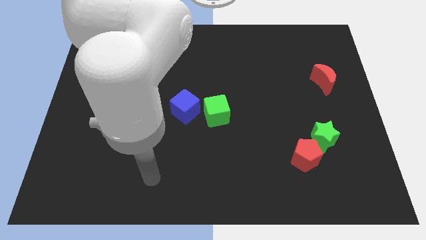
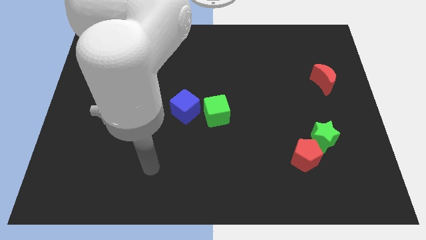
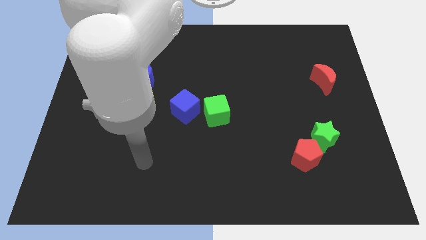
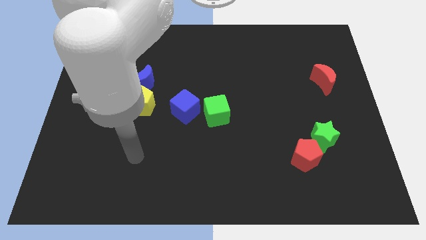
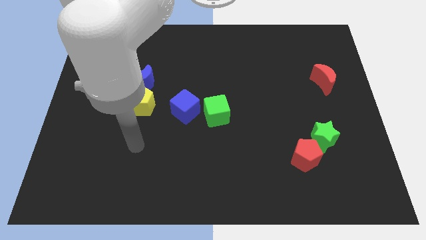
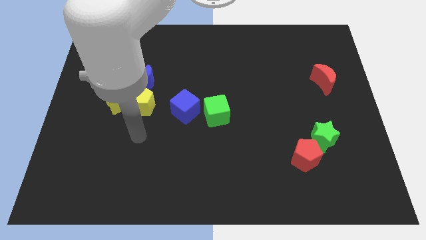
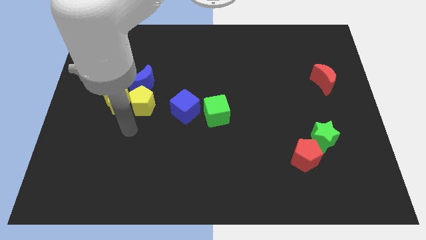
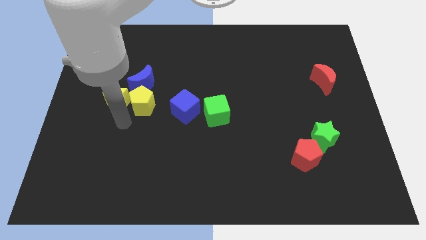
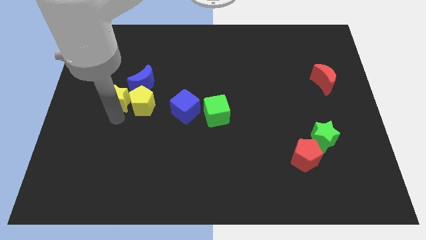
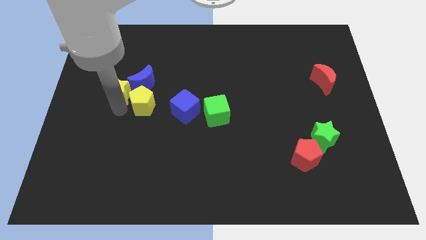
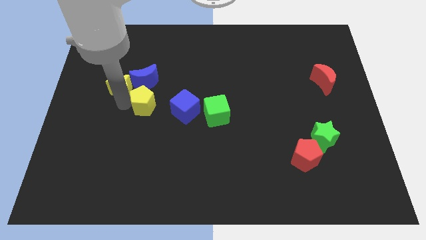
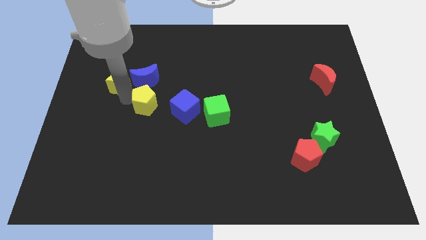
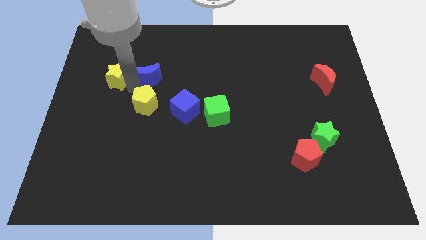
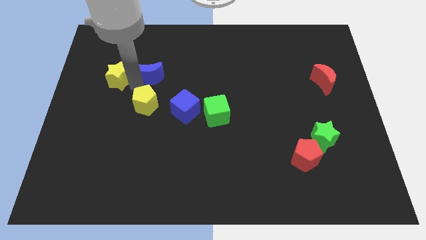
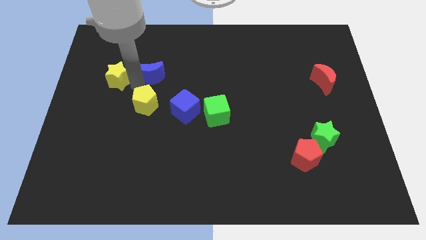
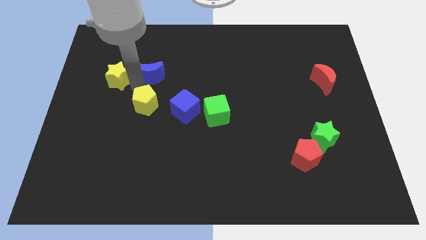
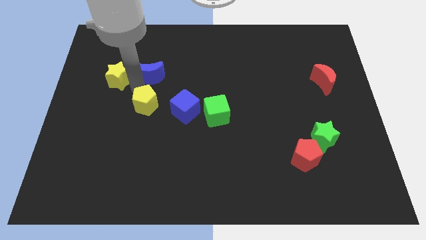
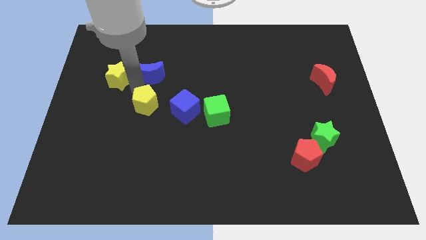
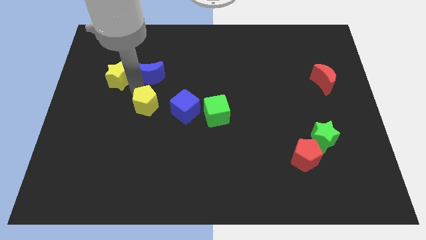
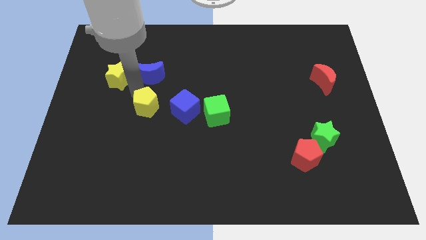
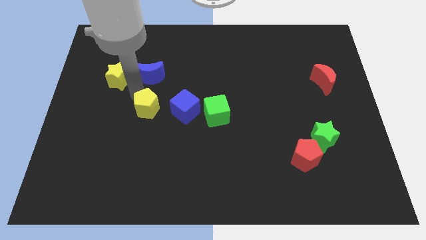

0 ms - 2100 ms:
pull the yellow pentagon apart from the yellow star and blue moon

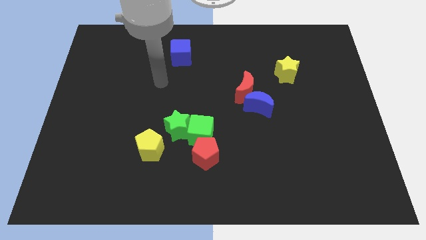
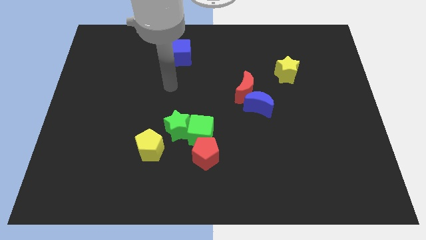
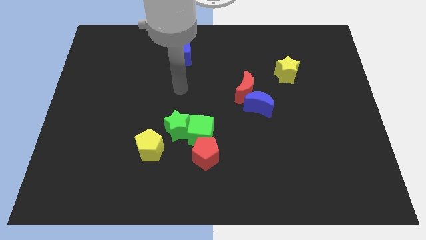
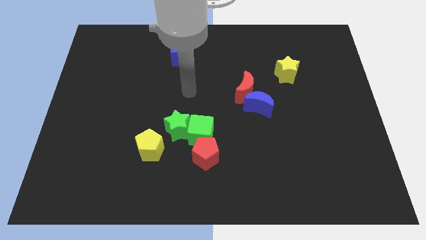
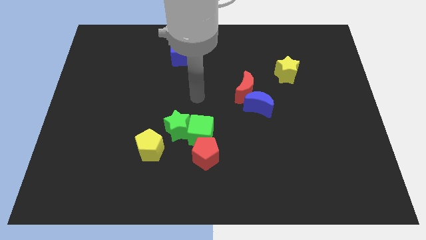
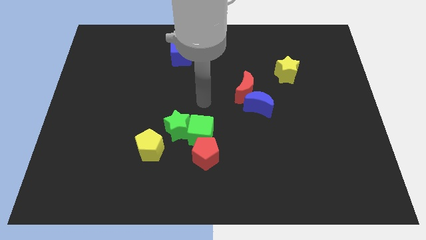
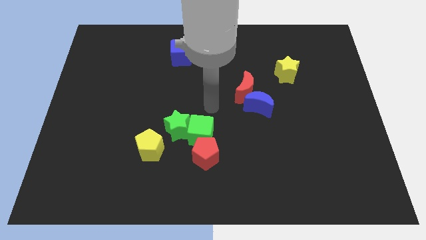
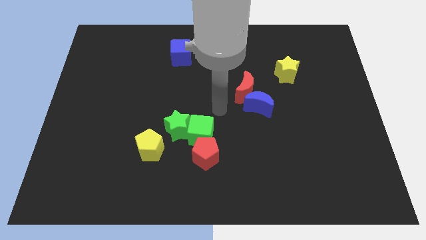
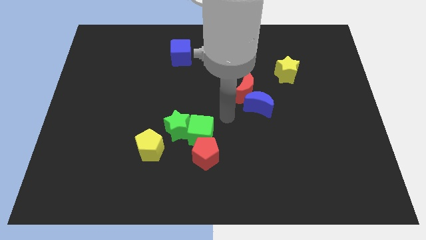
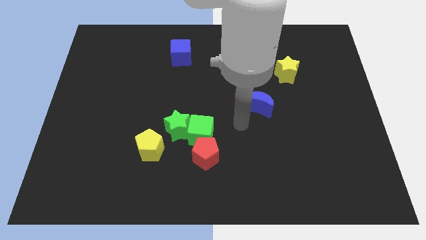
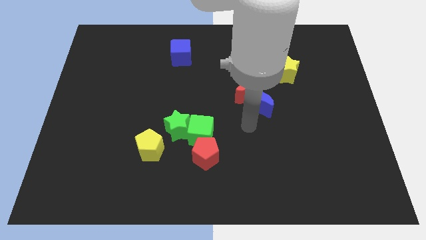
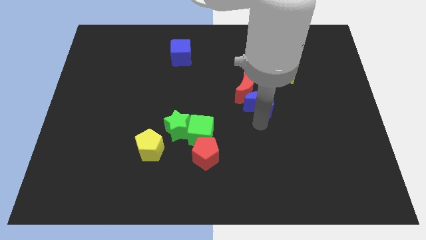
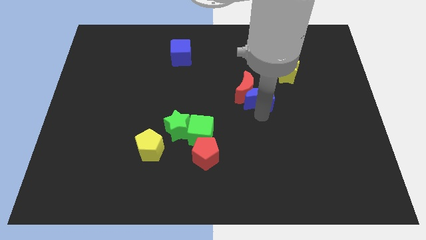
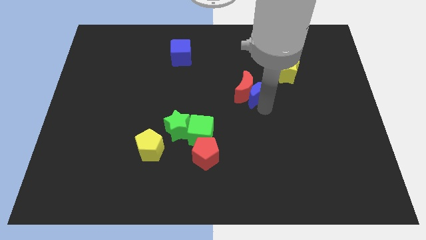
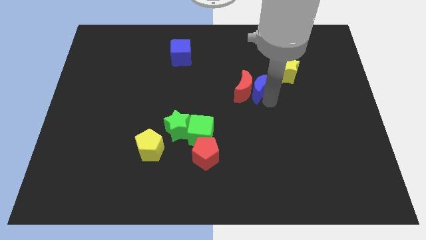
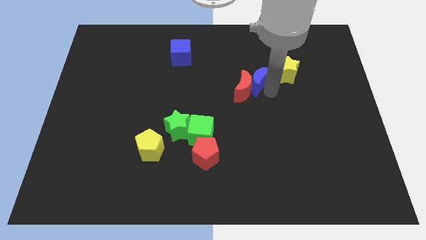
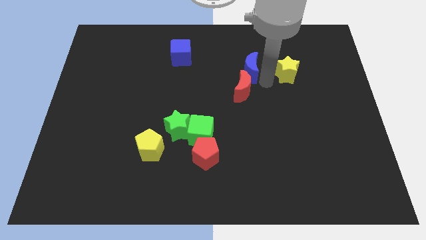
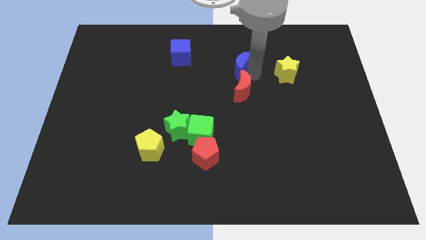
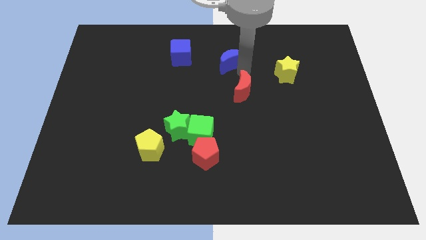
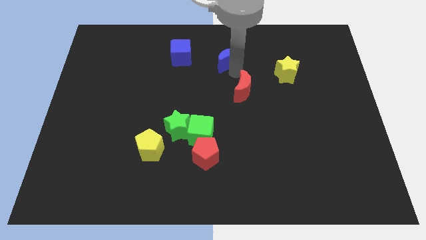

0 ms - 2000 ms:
separate the red moon from the blue moon

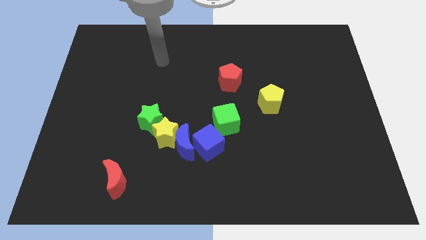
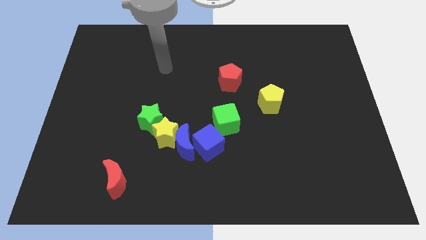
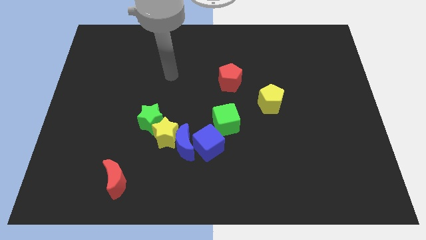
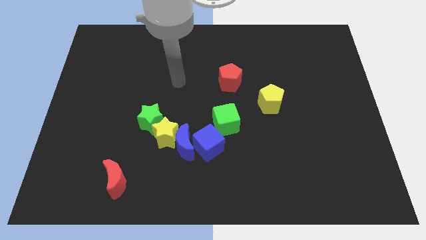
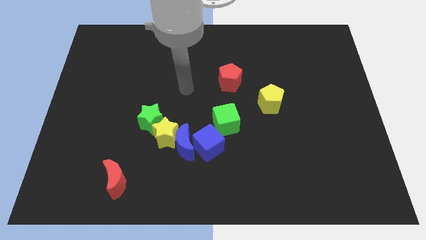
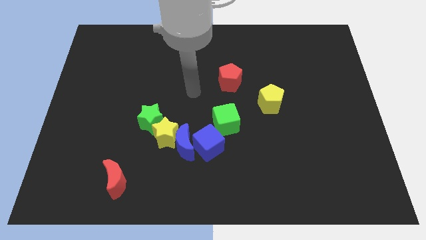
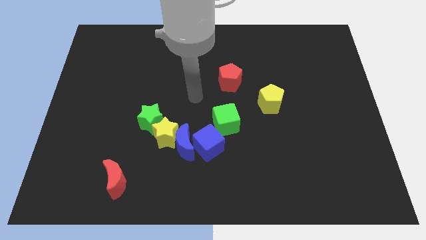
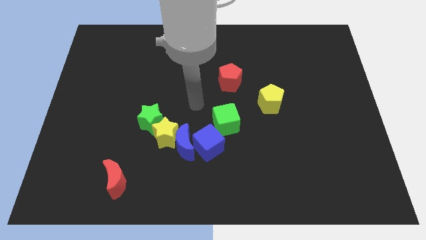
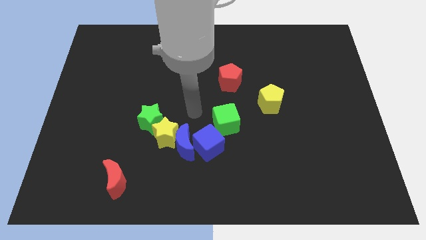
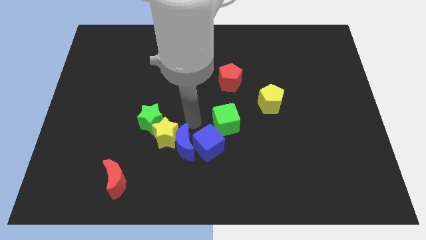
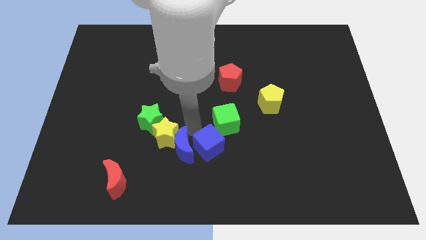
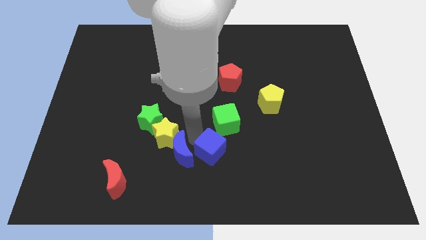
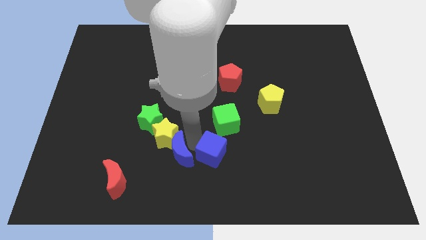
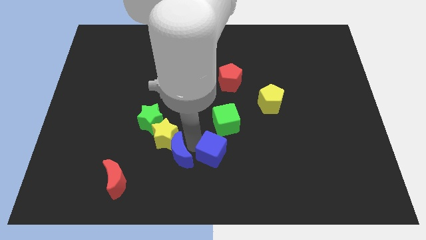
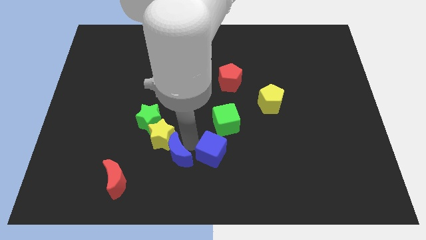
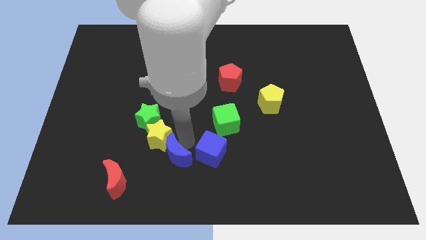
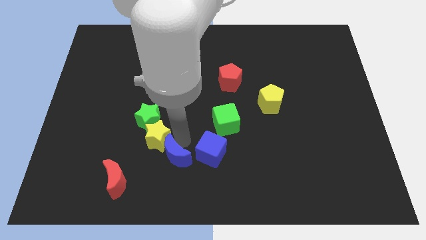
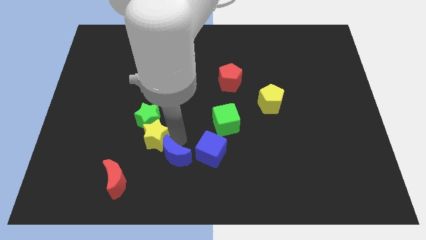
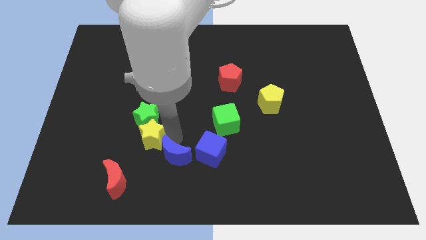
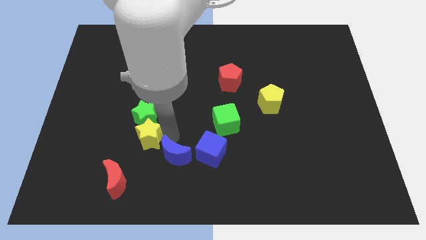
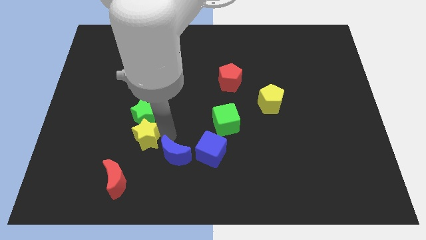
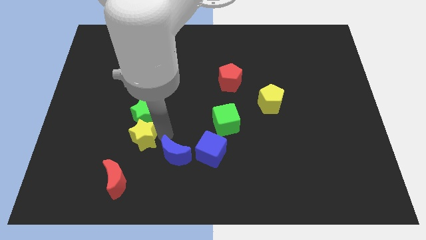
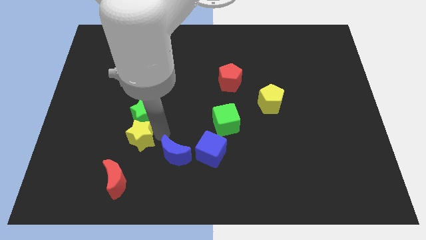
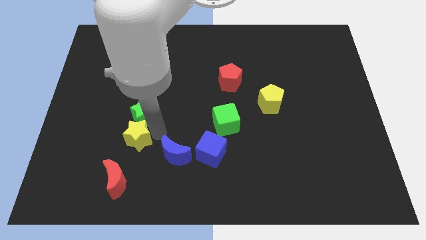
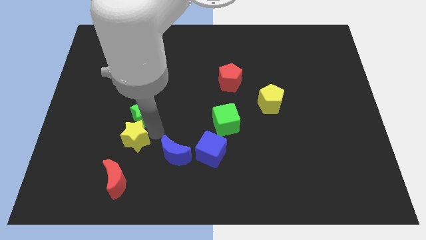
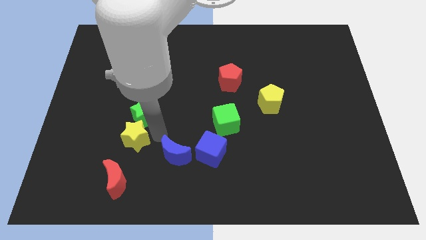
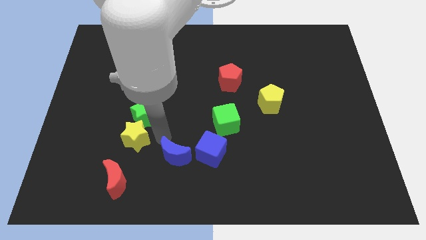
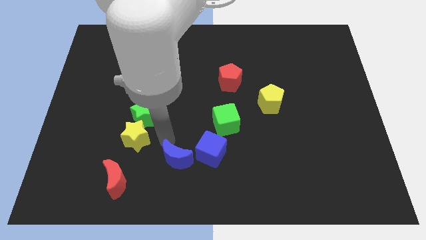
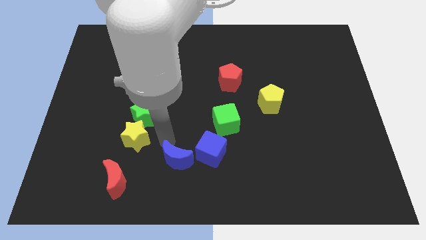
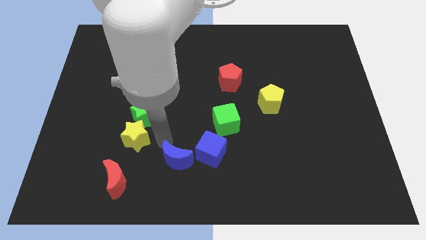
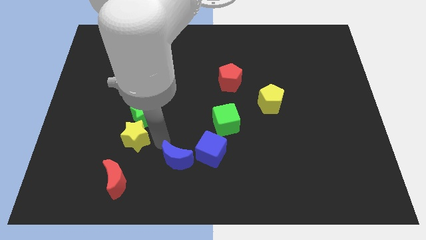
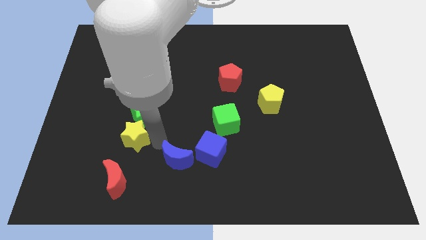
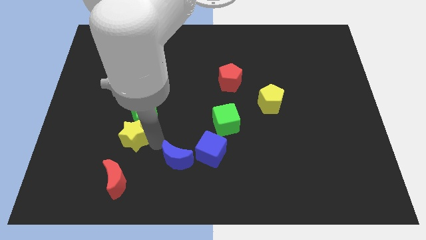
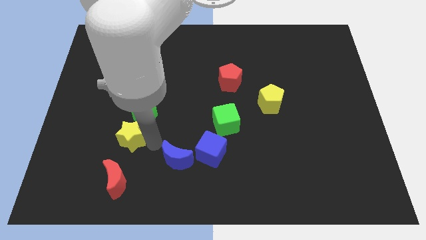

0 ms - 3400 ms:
move the yellow star away from the group of blocks

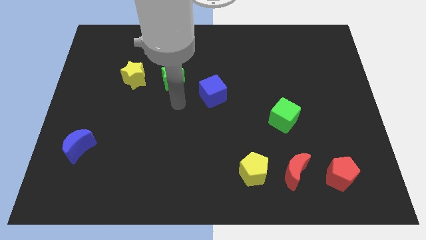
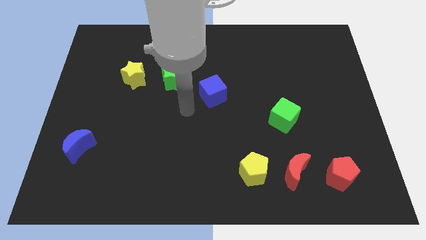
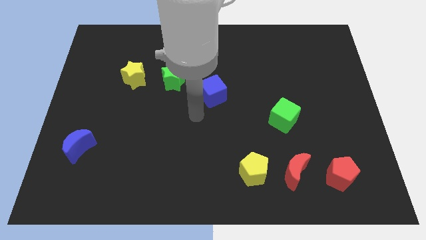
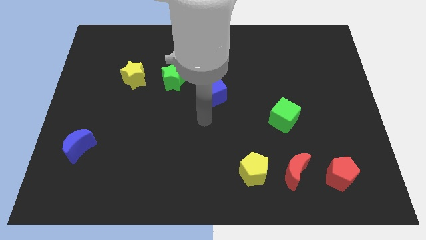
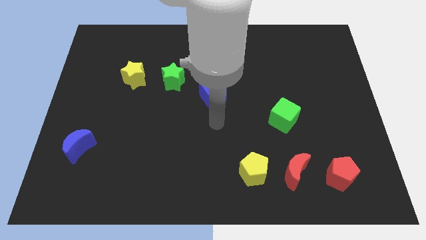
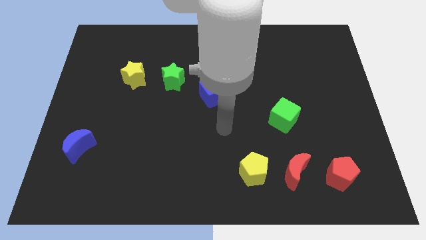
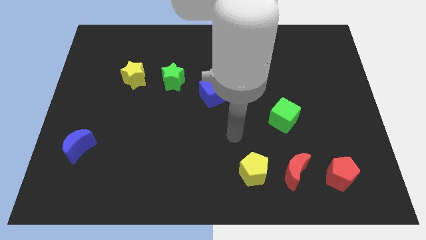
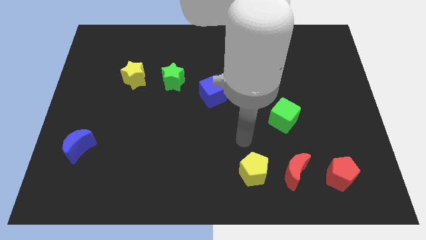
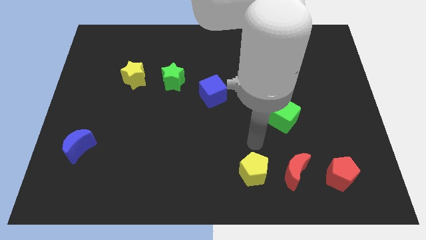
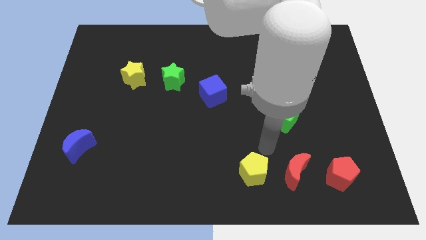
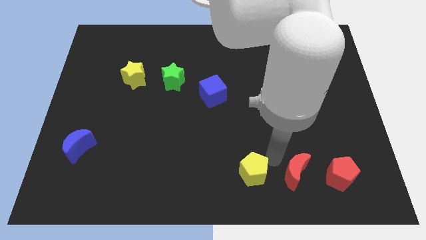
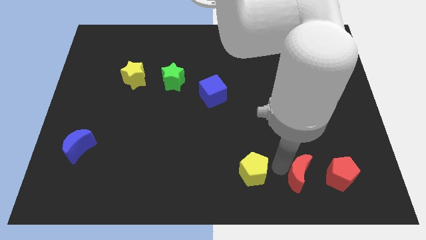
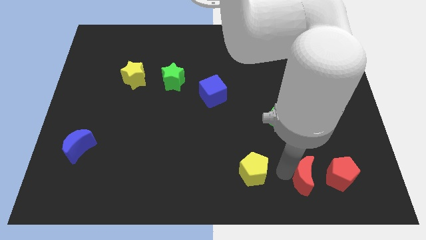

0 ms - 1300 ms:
pull the yellow pentagon apart from the red moon

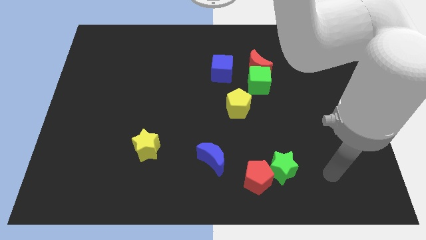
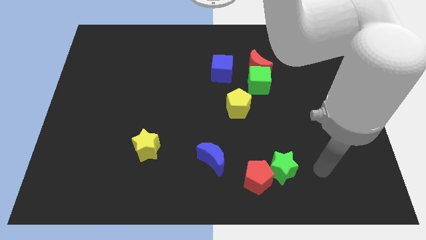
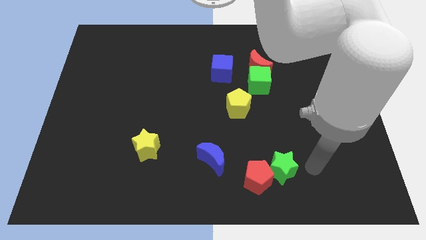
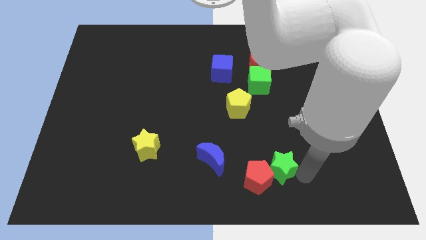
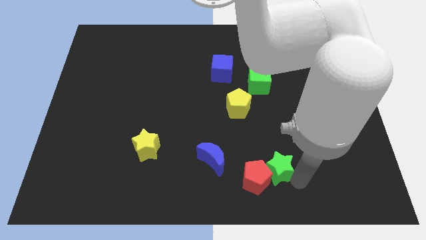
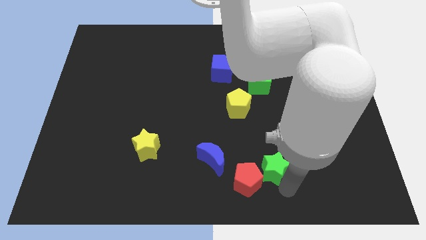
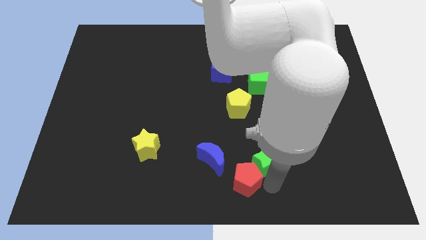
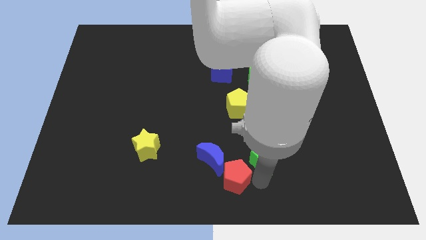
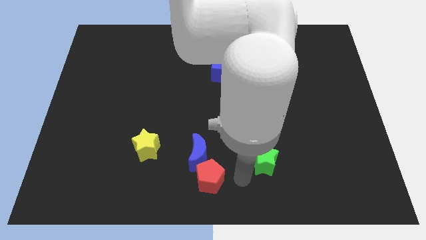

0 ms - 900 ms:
move the green star away from the red pentagon
